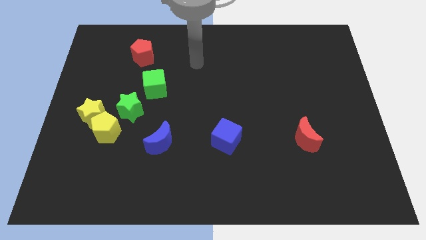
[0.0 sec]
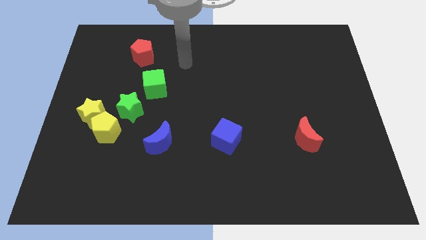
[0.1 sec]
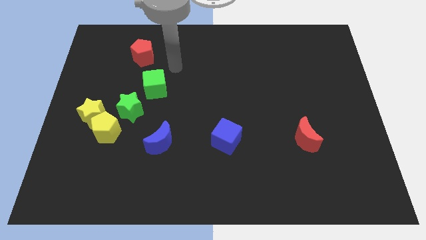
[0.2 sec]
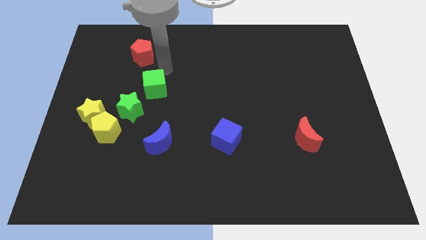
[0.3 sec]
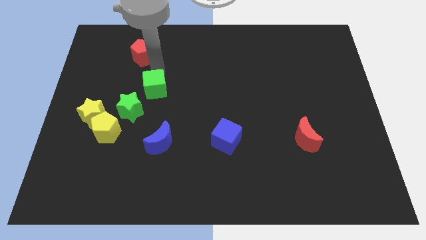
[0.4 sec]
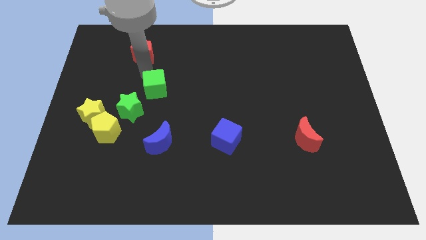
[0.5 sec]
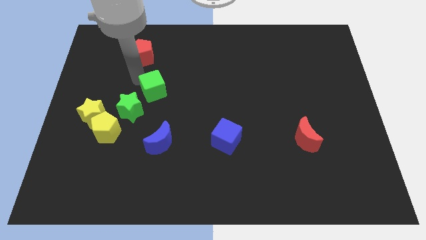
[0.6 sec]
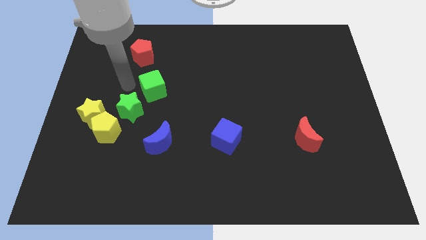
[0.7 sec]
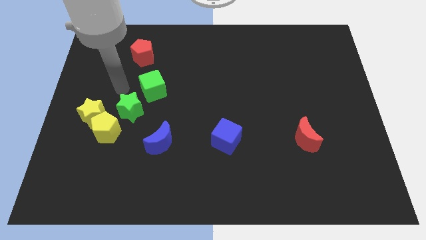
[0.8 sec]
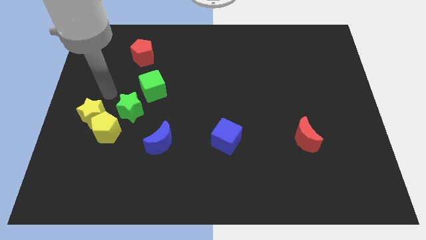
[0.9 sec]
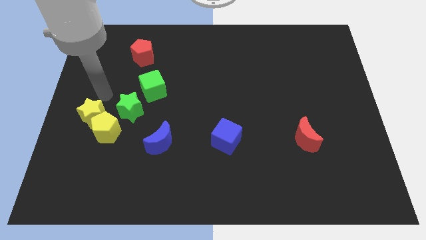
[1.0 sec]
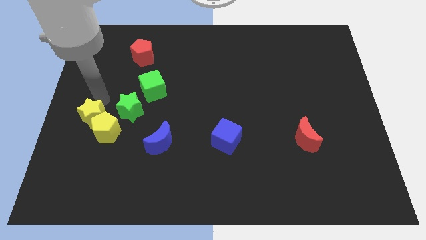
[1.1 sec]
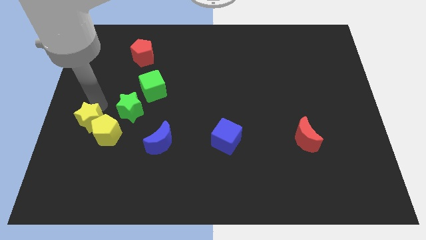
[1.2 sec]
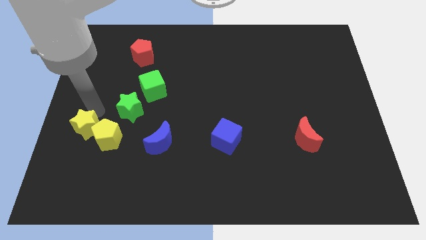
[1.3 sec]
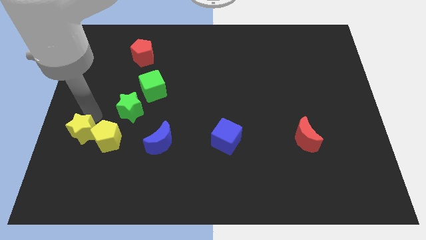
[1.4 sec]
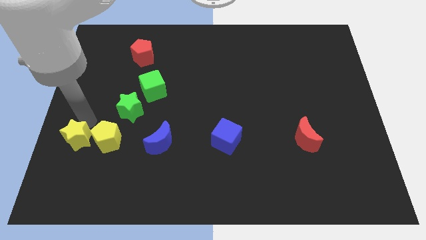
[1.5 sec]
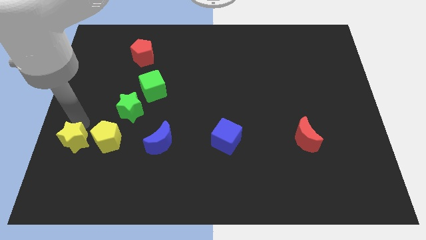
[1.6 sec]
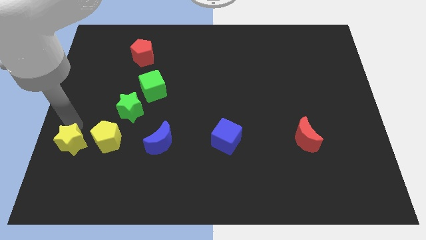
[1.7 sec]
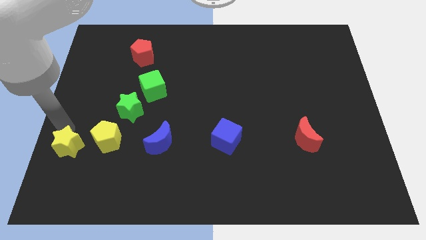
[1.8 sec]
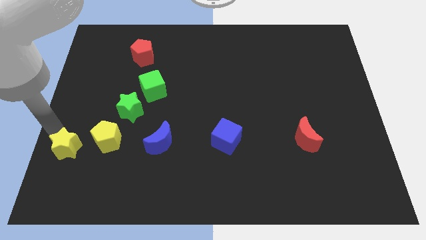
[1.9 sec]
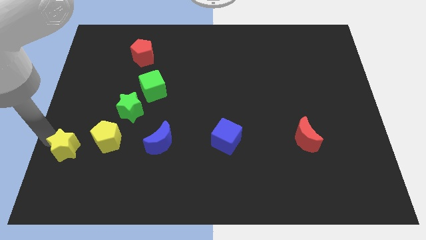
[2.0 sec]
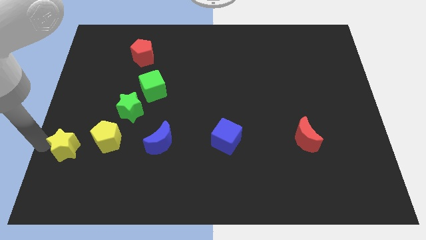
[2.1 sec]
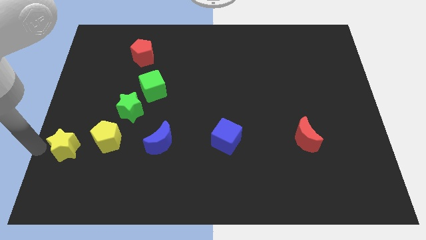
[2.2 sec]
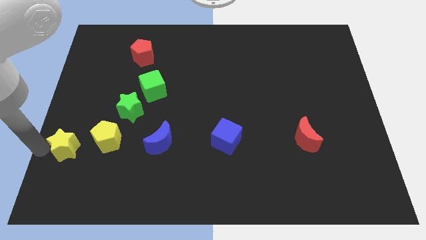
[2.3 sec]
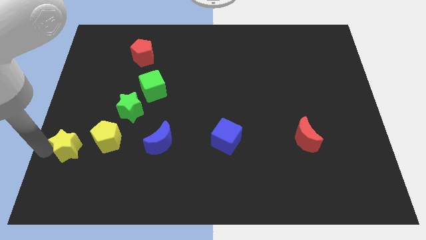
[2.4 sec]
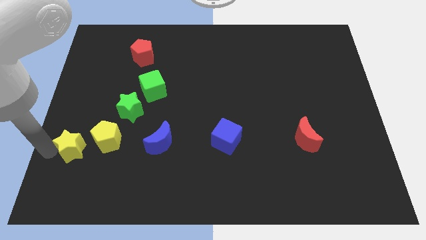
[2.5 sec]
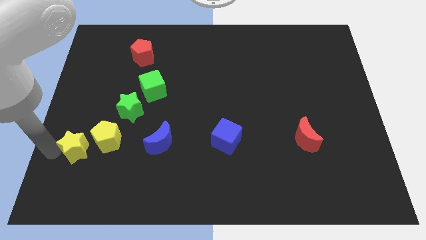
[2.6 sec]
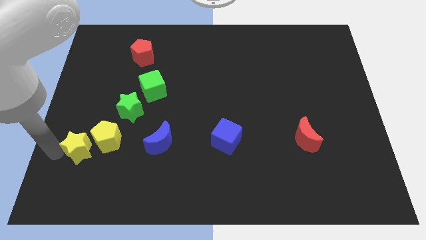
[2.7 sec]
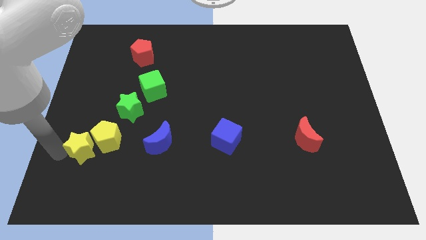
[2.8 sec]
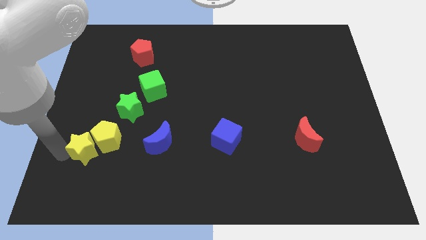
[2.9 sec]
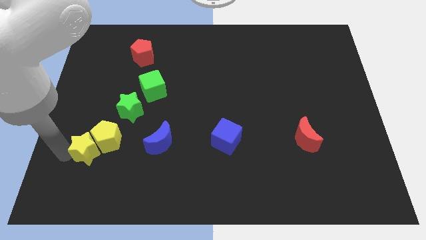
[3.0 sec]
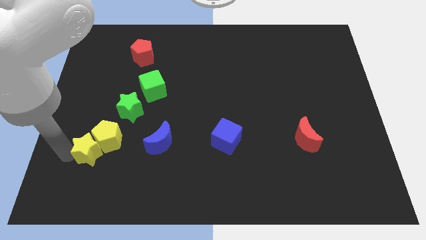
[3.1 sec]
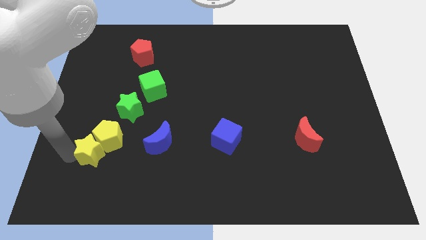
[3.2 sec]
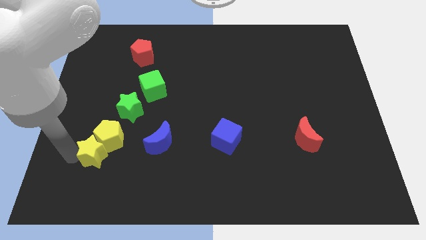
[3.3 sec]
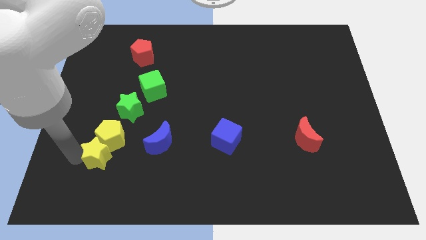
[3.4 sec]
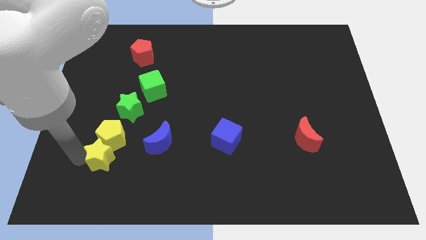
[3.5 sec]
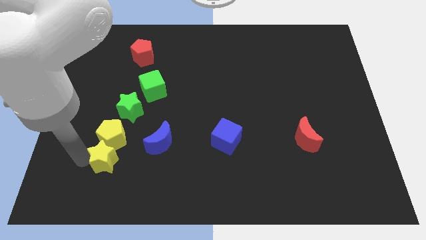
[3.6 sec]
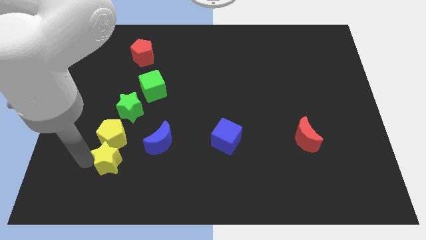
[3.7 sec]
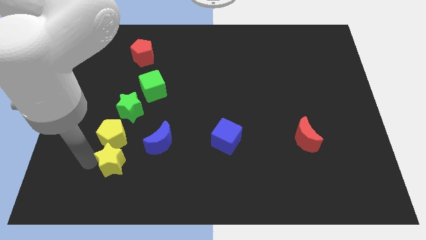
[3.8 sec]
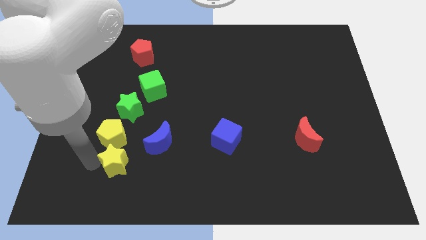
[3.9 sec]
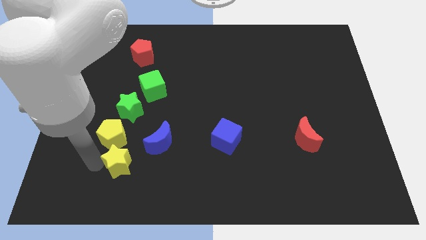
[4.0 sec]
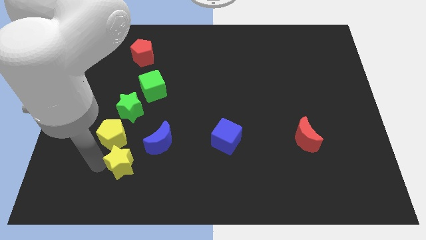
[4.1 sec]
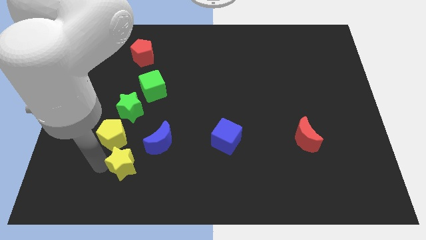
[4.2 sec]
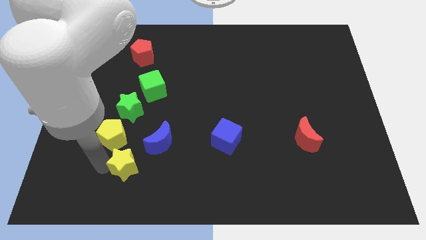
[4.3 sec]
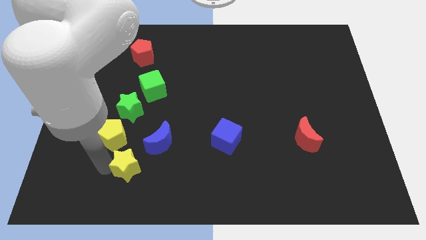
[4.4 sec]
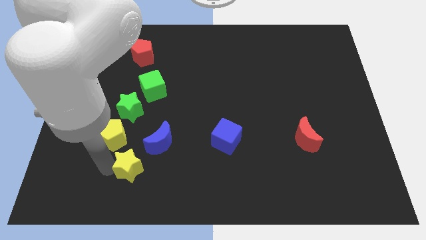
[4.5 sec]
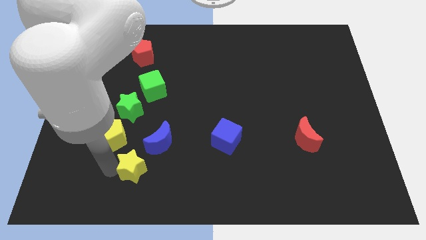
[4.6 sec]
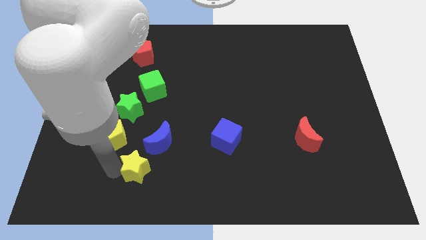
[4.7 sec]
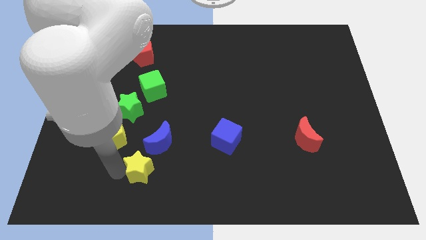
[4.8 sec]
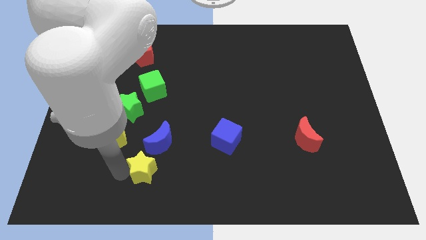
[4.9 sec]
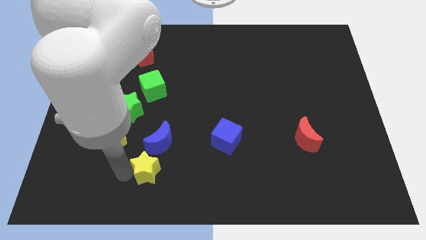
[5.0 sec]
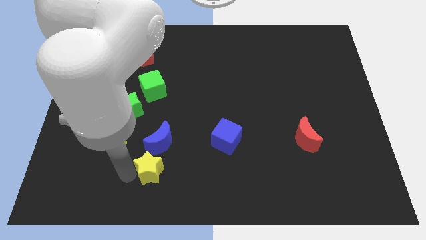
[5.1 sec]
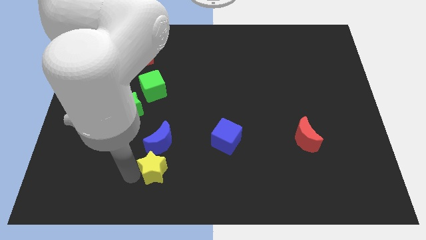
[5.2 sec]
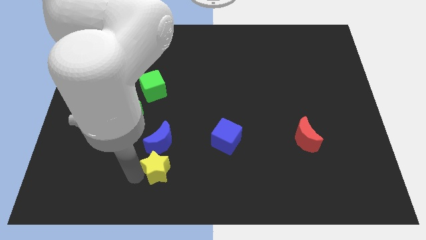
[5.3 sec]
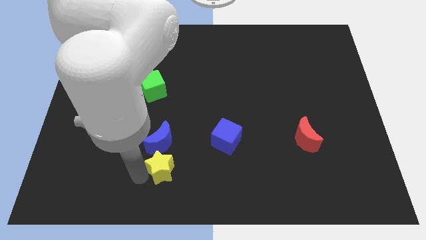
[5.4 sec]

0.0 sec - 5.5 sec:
put the yellow star to the blue moon

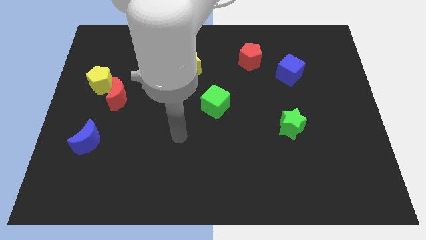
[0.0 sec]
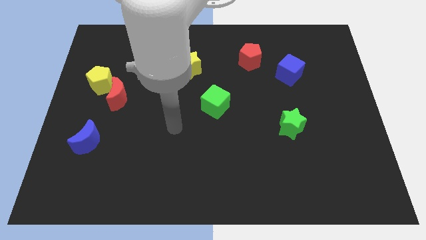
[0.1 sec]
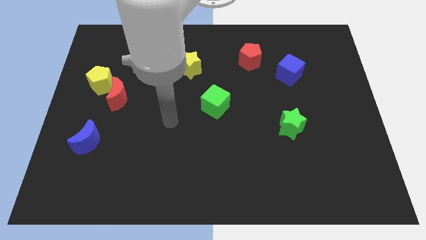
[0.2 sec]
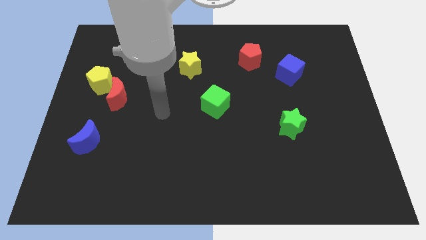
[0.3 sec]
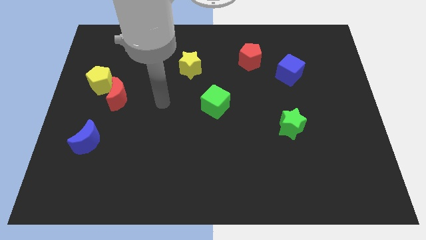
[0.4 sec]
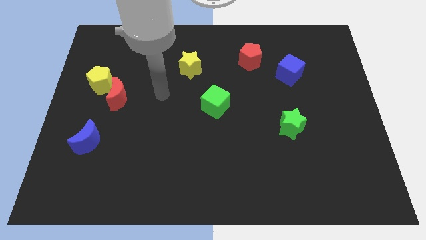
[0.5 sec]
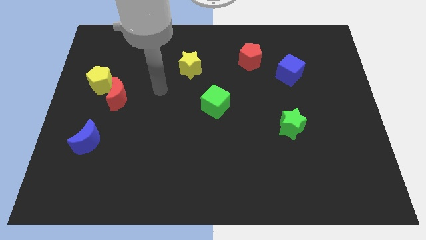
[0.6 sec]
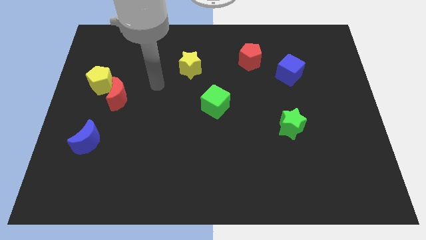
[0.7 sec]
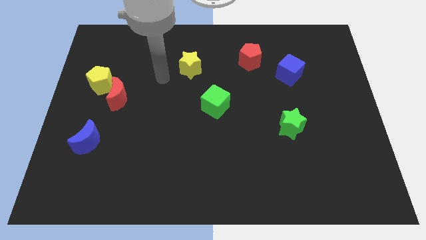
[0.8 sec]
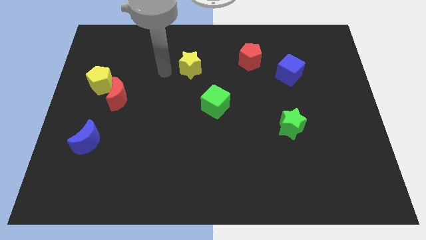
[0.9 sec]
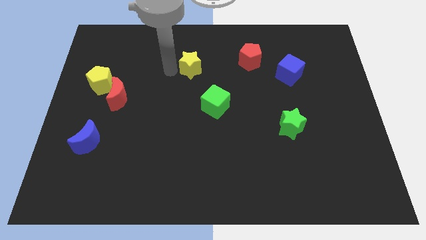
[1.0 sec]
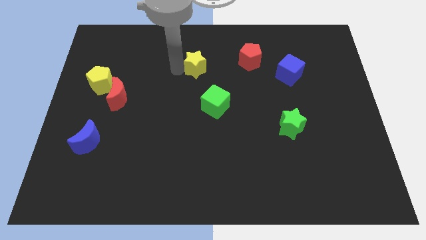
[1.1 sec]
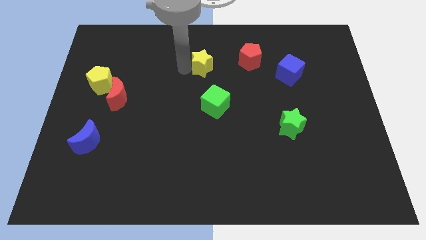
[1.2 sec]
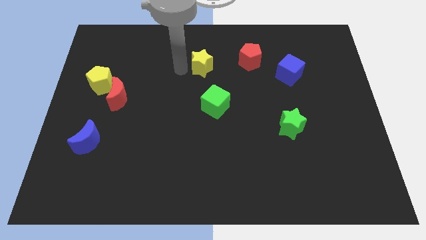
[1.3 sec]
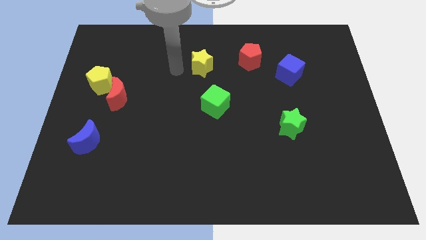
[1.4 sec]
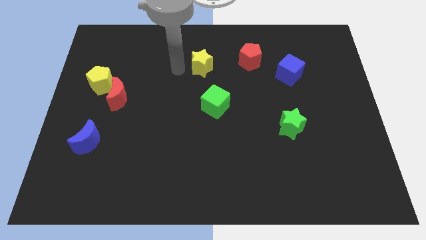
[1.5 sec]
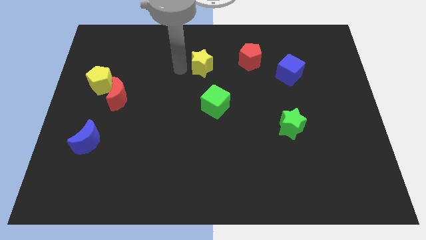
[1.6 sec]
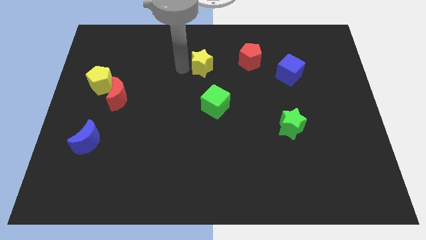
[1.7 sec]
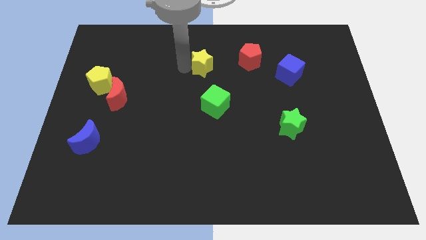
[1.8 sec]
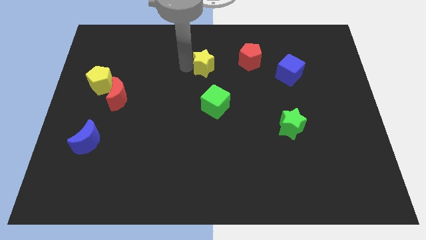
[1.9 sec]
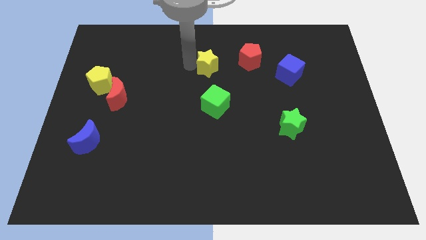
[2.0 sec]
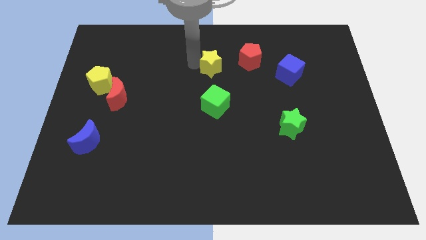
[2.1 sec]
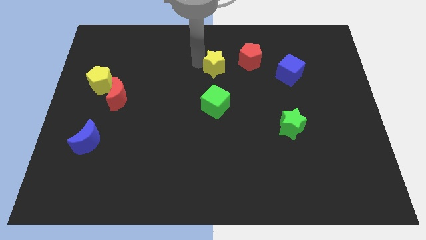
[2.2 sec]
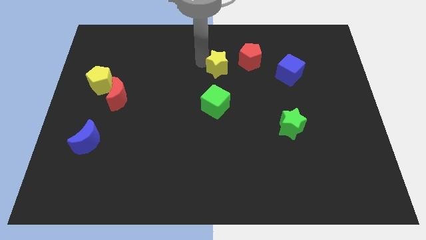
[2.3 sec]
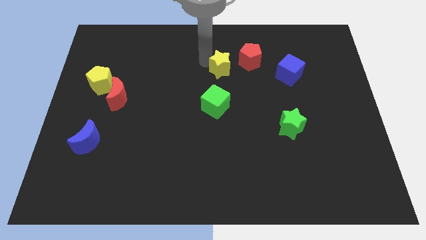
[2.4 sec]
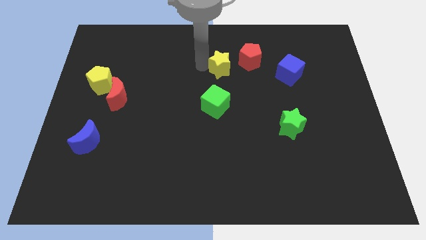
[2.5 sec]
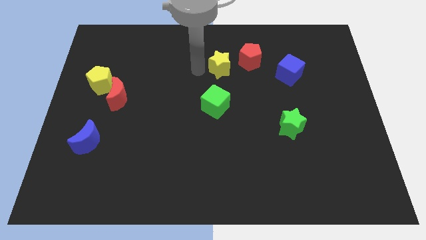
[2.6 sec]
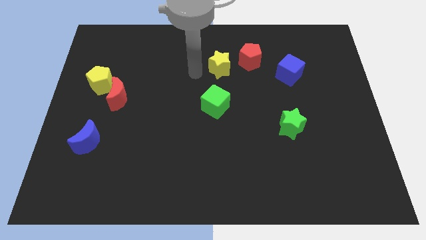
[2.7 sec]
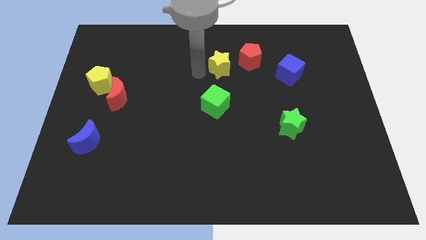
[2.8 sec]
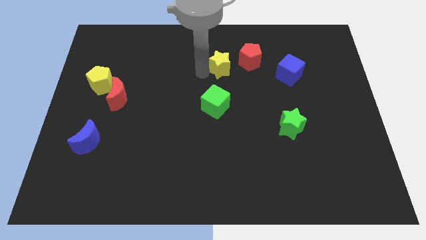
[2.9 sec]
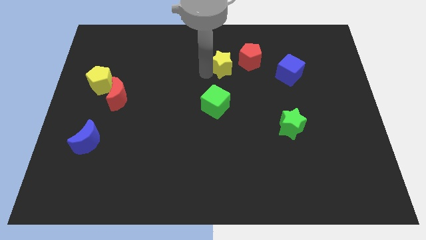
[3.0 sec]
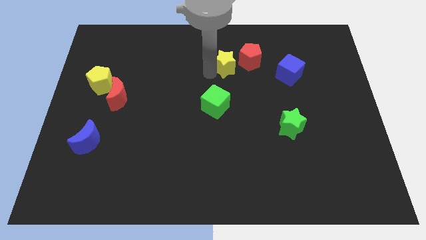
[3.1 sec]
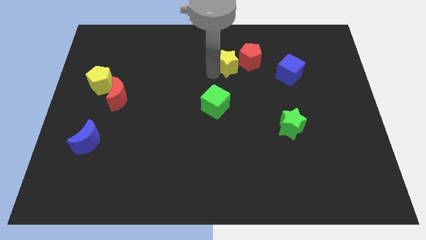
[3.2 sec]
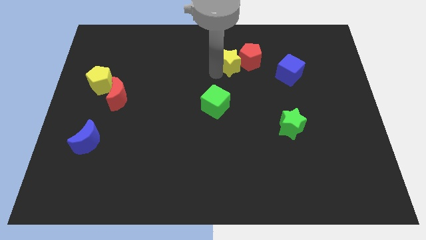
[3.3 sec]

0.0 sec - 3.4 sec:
push the yellow star to the red pentagon
